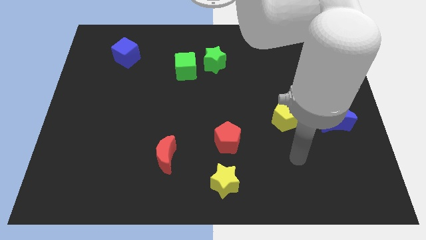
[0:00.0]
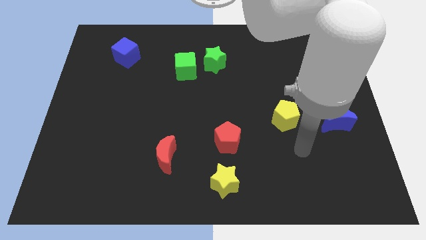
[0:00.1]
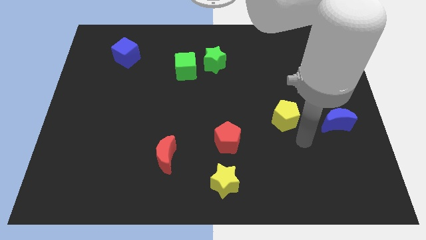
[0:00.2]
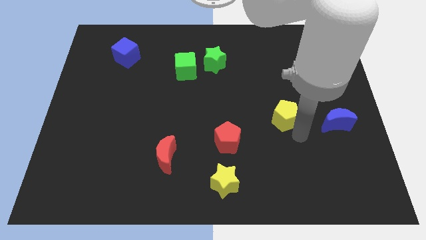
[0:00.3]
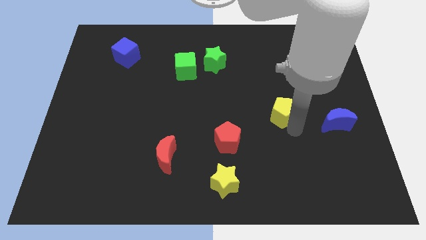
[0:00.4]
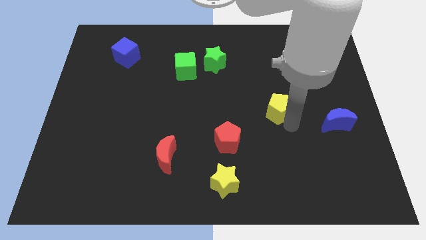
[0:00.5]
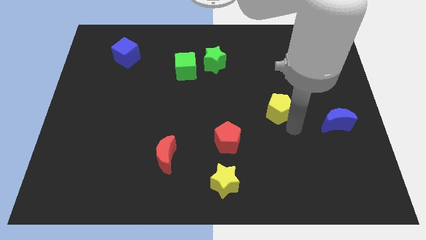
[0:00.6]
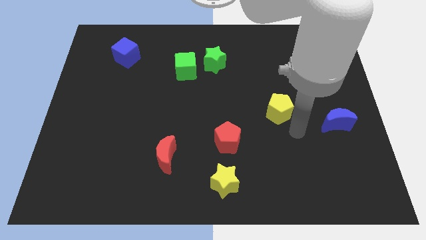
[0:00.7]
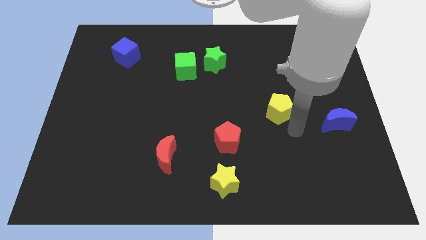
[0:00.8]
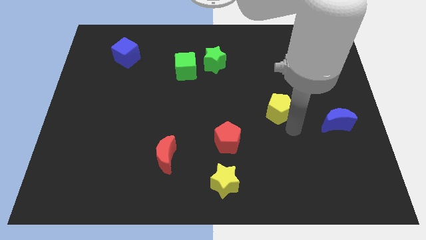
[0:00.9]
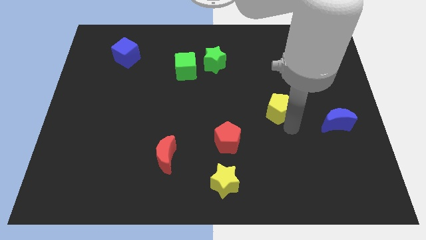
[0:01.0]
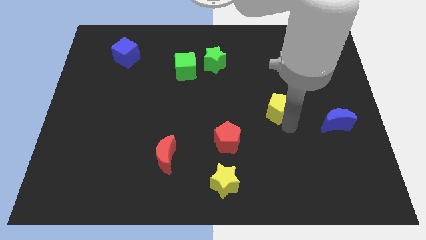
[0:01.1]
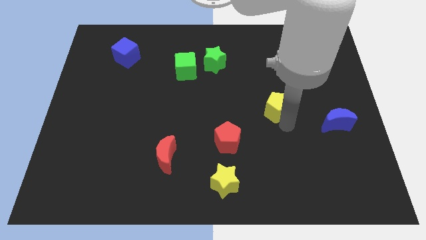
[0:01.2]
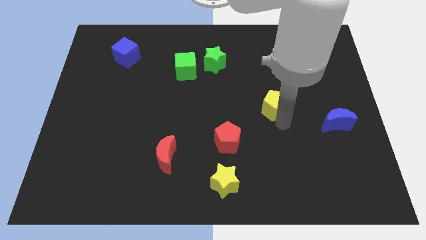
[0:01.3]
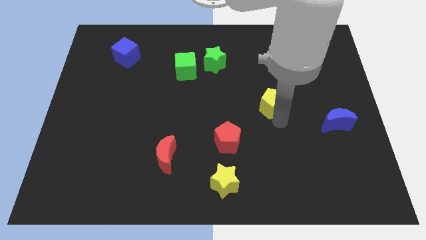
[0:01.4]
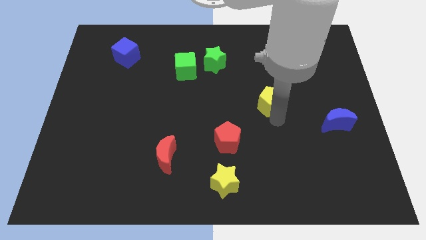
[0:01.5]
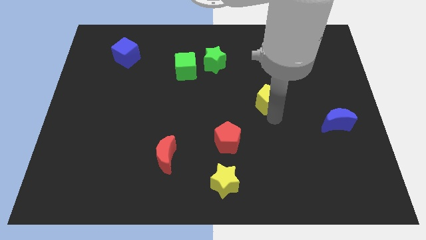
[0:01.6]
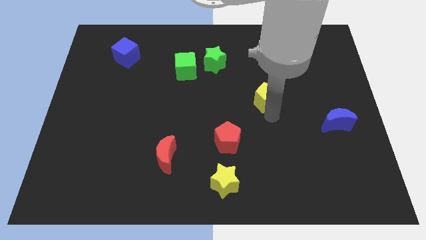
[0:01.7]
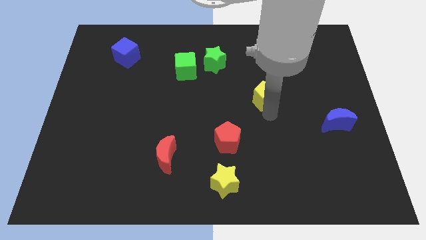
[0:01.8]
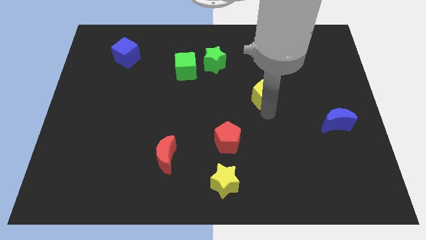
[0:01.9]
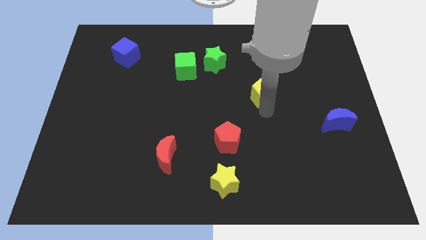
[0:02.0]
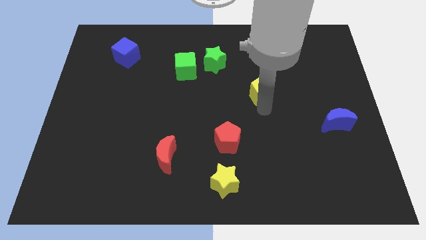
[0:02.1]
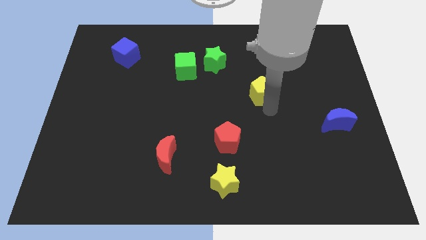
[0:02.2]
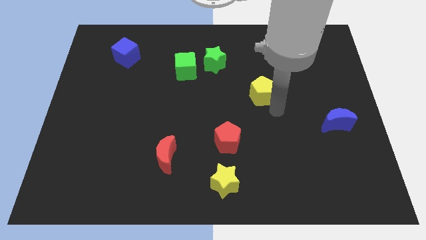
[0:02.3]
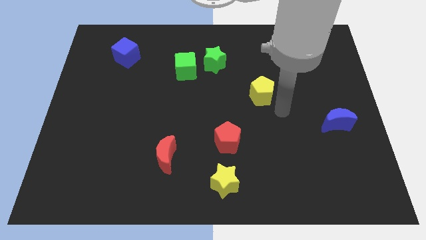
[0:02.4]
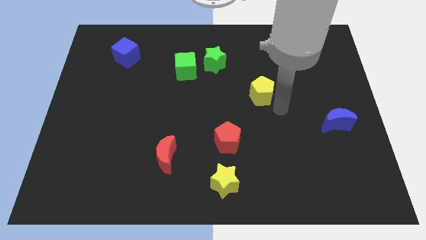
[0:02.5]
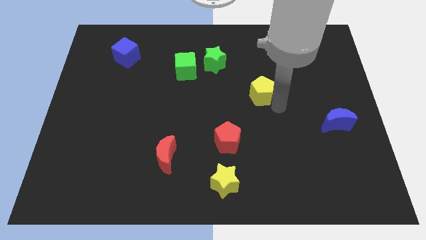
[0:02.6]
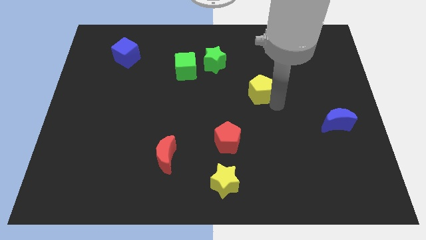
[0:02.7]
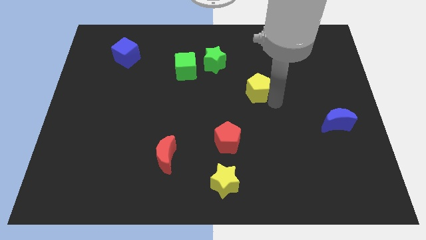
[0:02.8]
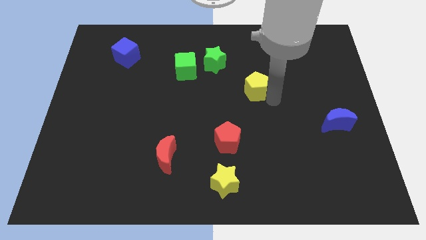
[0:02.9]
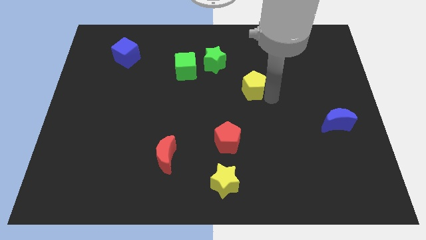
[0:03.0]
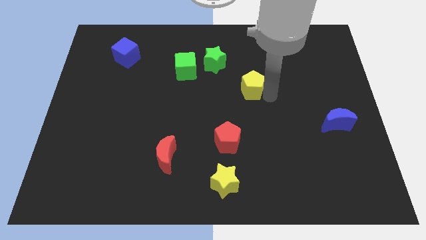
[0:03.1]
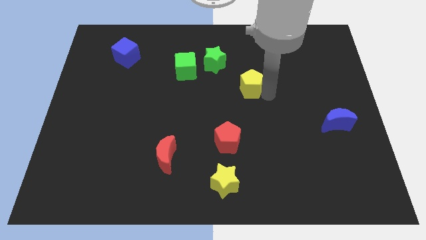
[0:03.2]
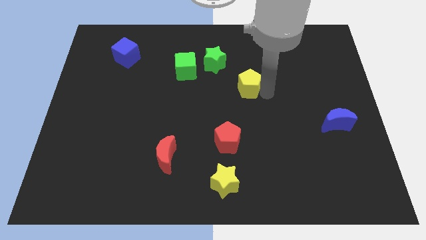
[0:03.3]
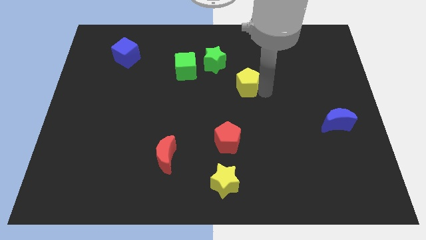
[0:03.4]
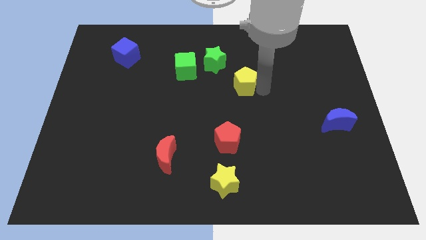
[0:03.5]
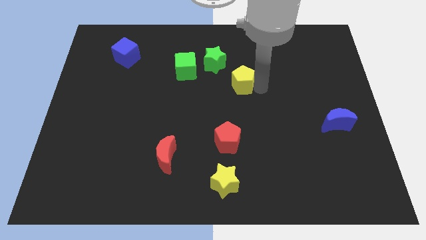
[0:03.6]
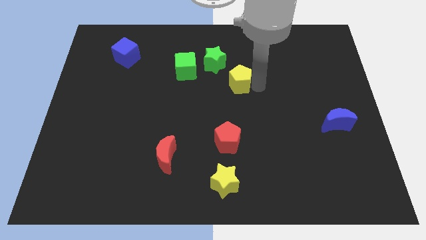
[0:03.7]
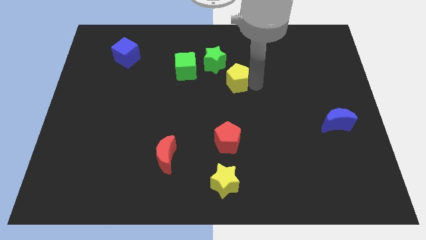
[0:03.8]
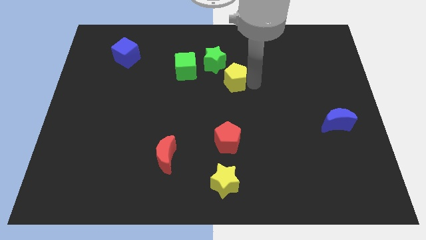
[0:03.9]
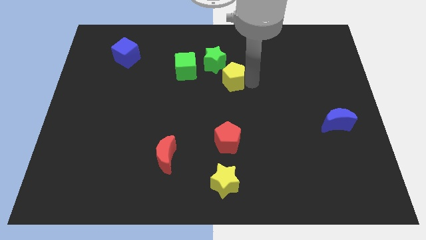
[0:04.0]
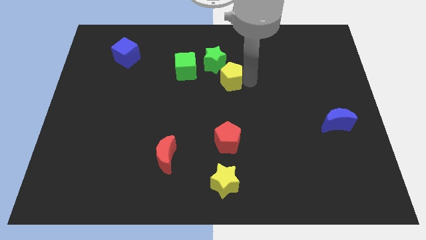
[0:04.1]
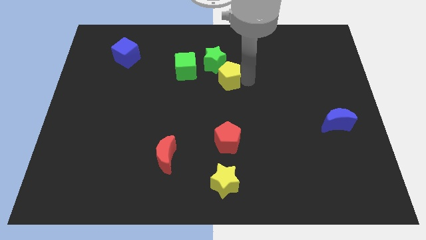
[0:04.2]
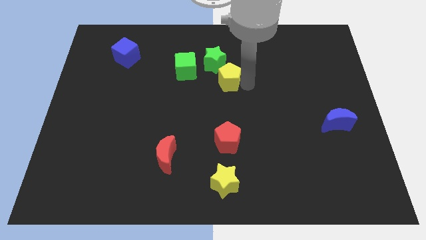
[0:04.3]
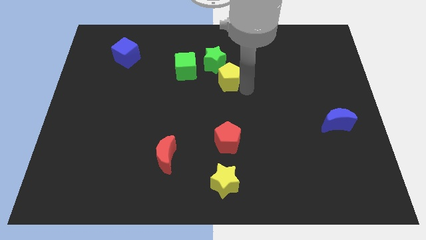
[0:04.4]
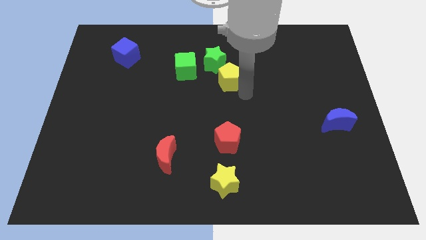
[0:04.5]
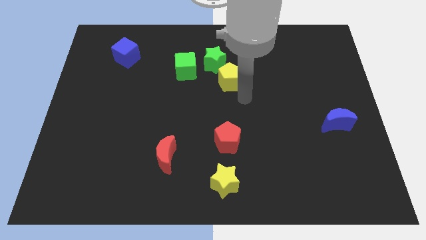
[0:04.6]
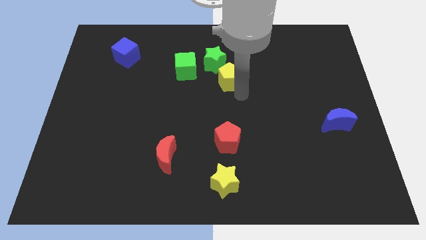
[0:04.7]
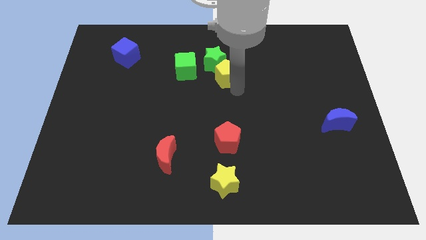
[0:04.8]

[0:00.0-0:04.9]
push the yellow pentagon to the green star

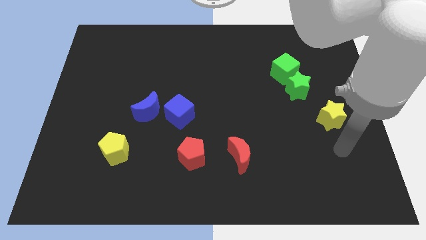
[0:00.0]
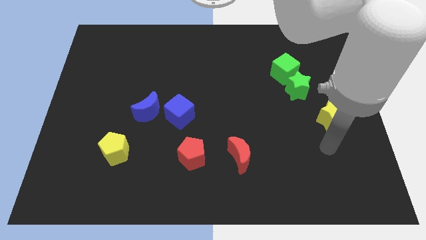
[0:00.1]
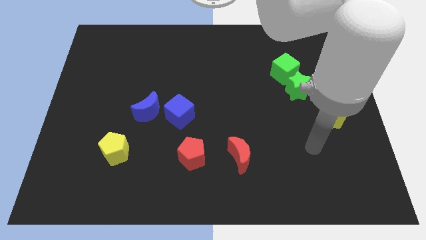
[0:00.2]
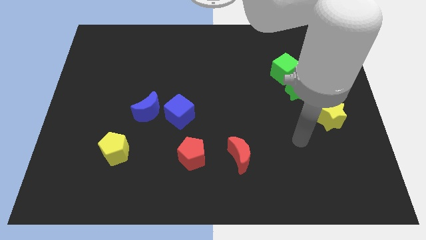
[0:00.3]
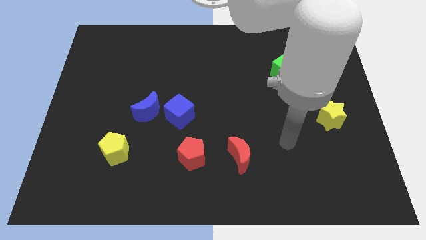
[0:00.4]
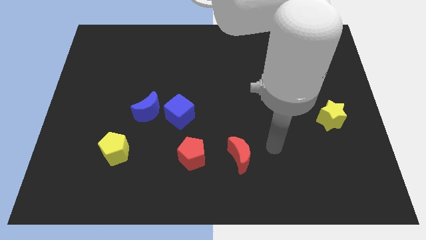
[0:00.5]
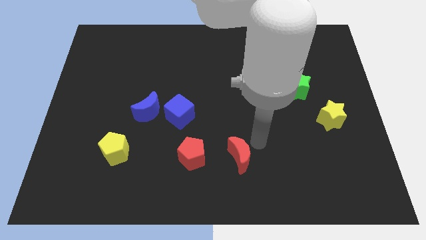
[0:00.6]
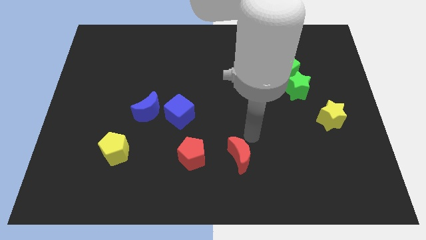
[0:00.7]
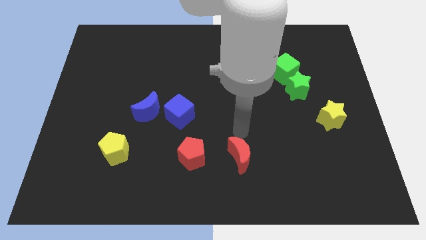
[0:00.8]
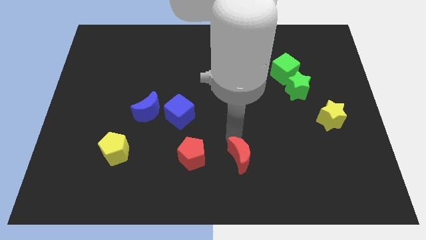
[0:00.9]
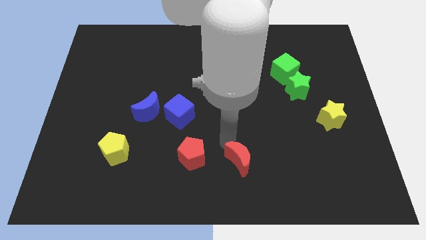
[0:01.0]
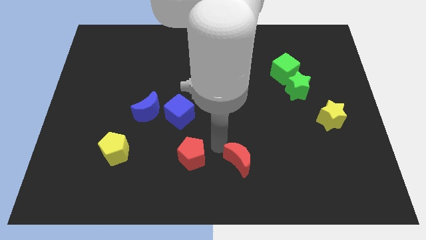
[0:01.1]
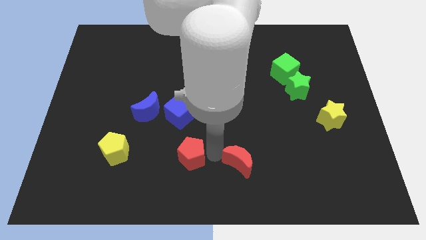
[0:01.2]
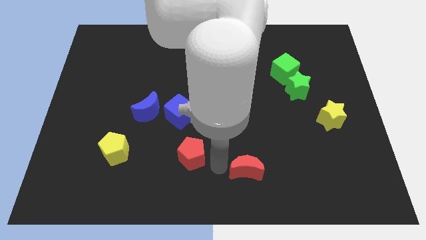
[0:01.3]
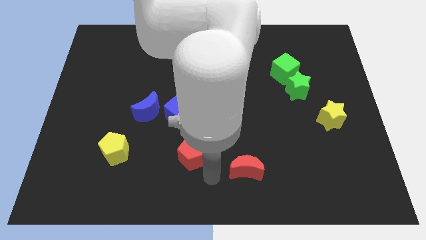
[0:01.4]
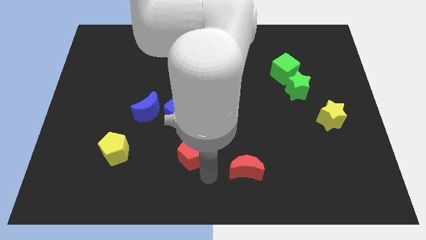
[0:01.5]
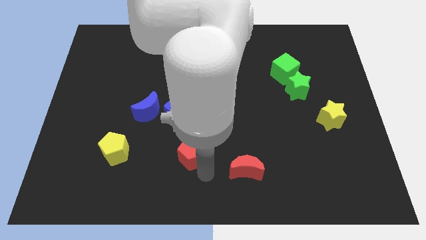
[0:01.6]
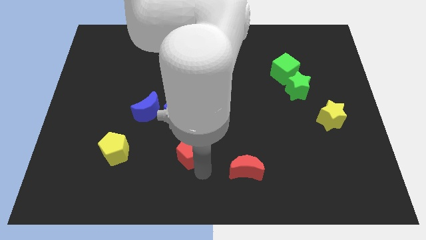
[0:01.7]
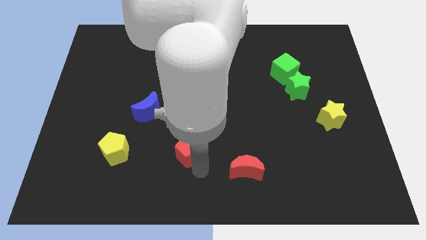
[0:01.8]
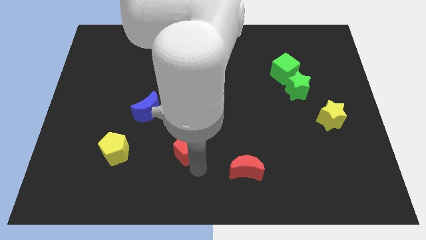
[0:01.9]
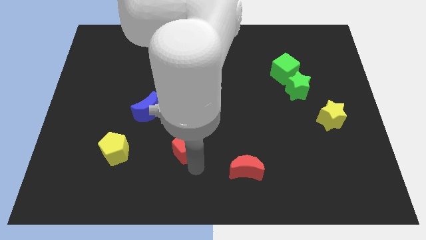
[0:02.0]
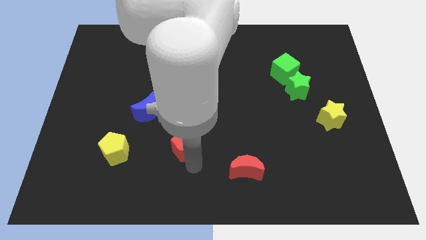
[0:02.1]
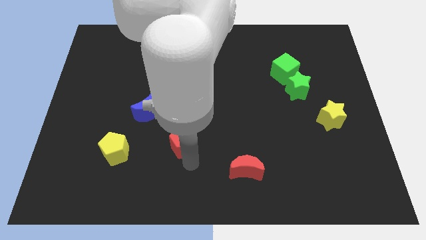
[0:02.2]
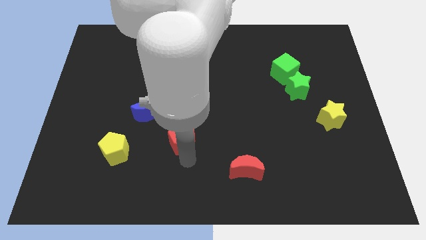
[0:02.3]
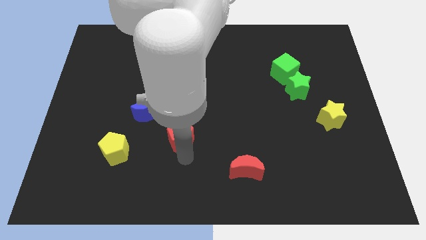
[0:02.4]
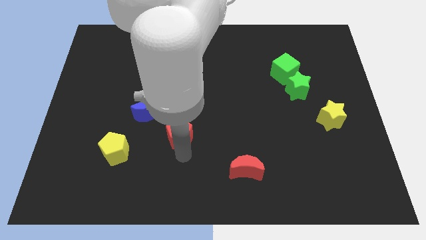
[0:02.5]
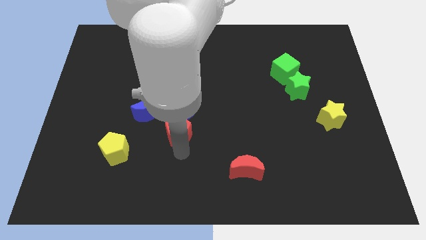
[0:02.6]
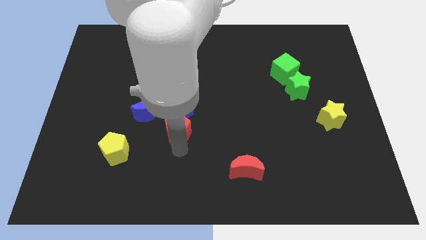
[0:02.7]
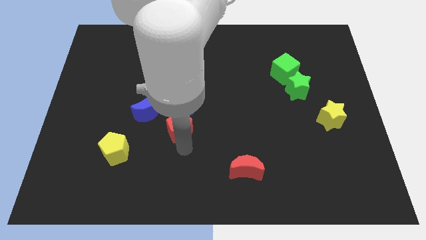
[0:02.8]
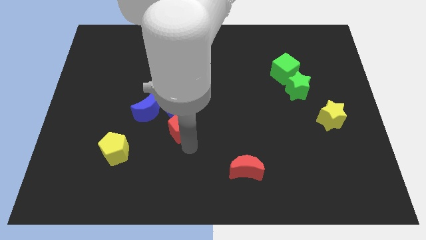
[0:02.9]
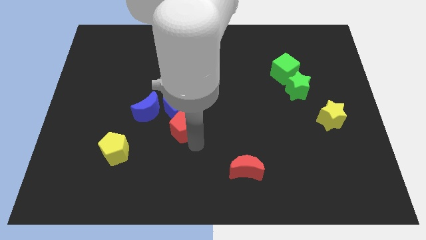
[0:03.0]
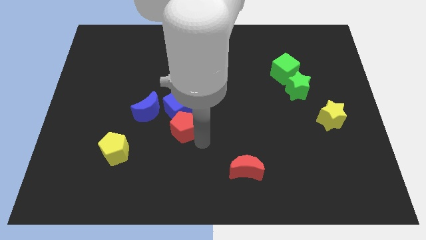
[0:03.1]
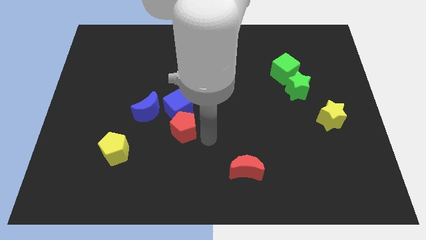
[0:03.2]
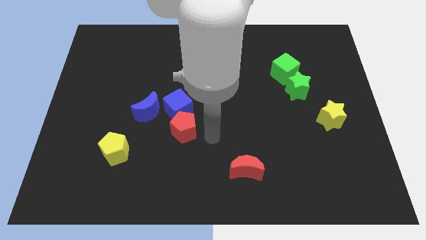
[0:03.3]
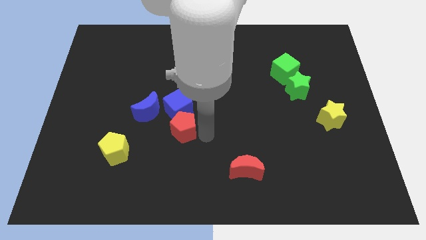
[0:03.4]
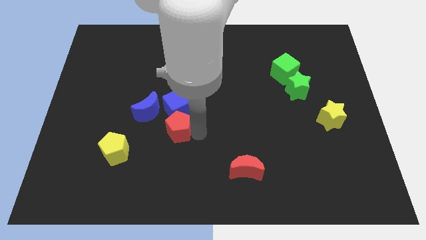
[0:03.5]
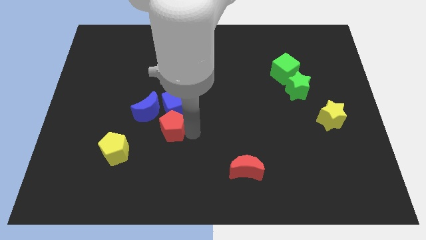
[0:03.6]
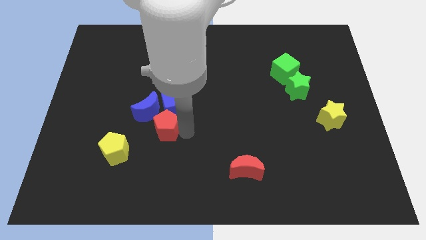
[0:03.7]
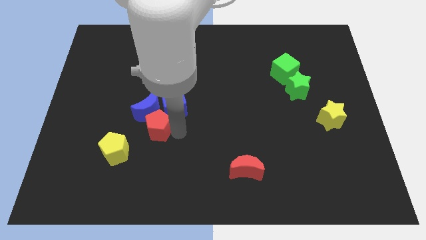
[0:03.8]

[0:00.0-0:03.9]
put the red pentagon to the blue moon
